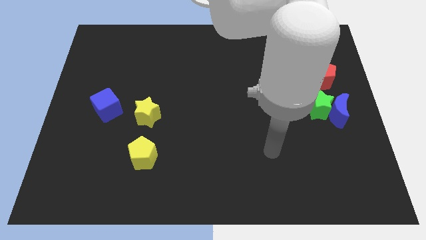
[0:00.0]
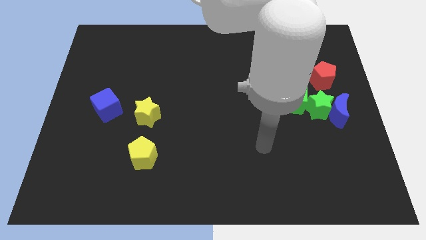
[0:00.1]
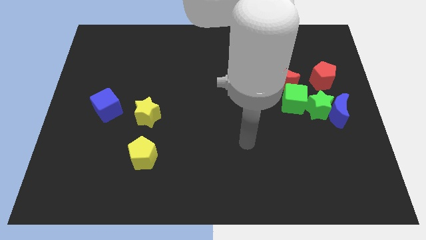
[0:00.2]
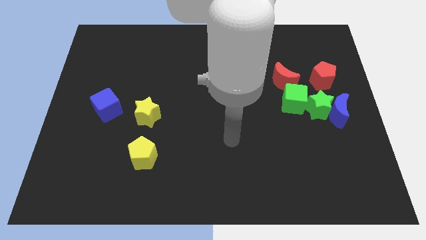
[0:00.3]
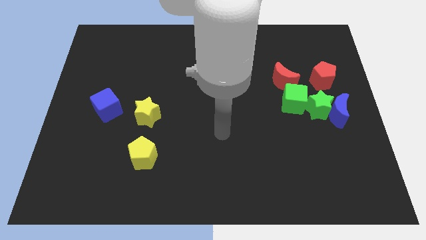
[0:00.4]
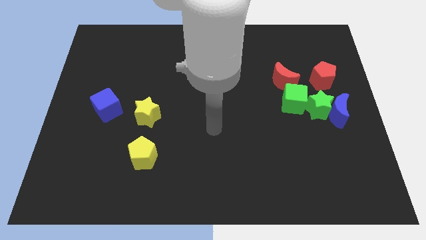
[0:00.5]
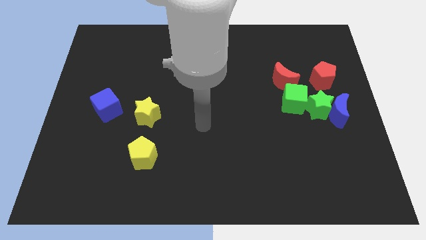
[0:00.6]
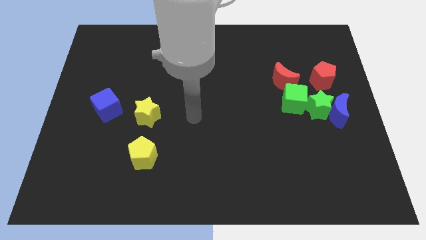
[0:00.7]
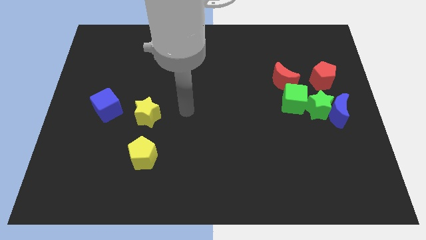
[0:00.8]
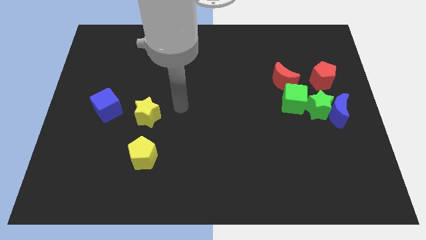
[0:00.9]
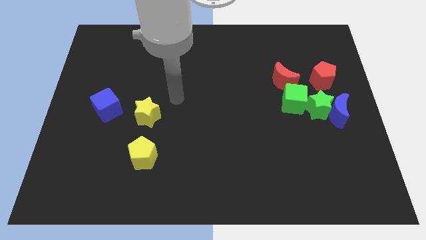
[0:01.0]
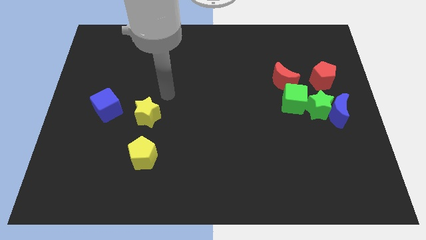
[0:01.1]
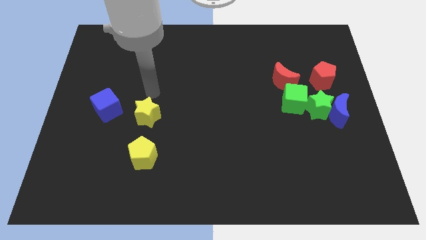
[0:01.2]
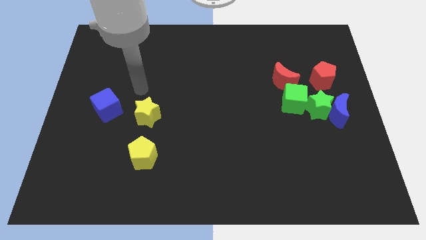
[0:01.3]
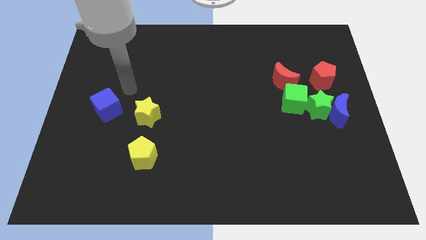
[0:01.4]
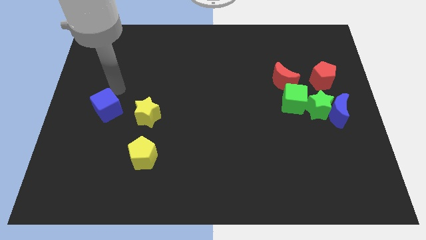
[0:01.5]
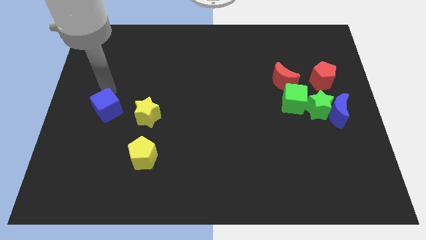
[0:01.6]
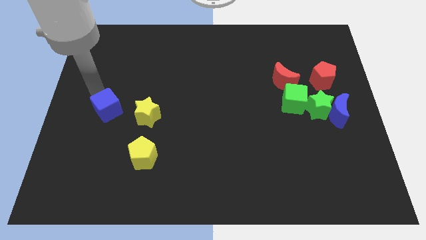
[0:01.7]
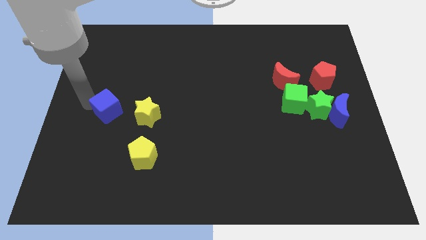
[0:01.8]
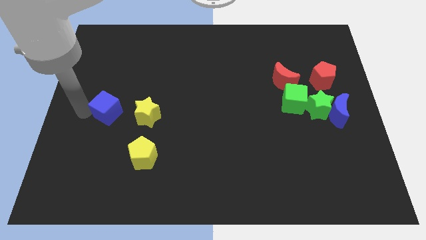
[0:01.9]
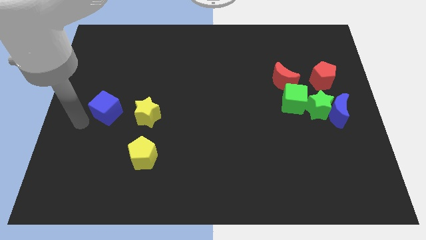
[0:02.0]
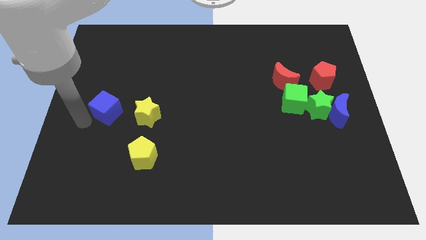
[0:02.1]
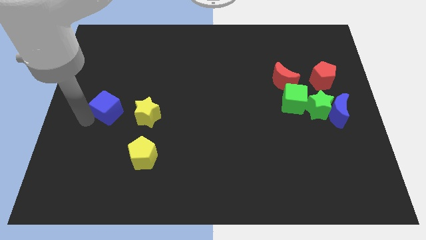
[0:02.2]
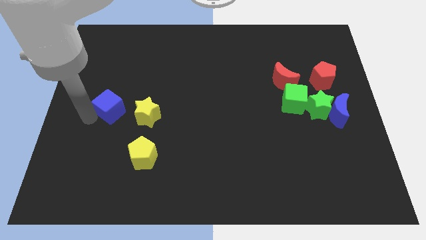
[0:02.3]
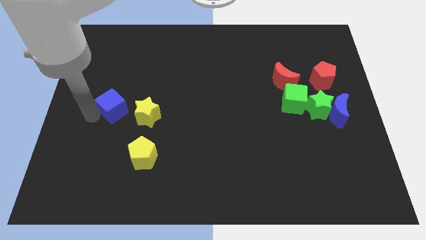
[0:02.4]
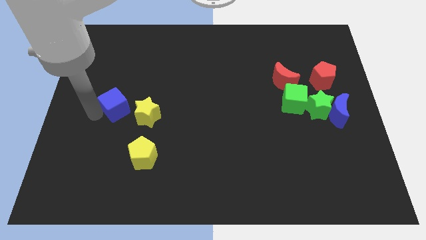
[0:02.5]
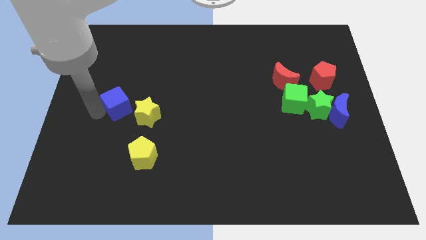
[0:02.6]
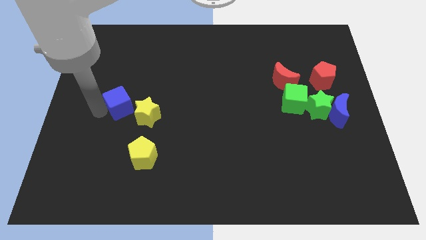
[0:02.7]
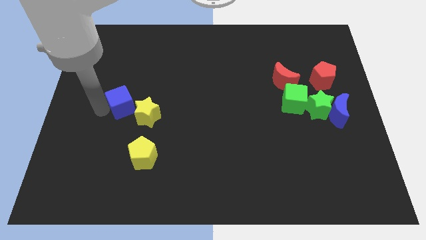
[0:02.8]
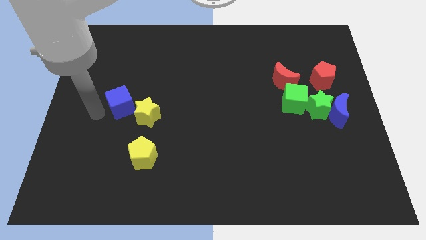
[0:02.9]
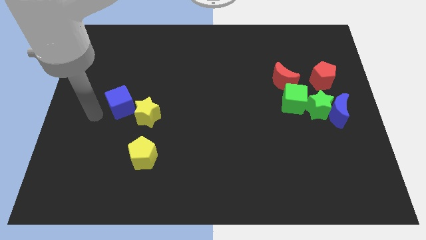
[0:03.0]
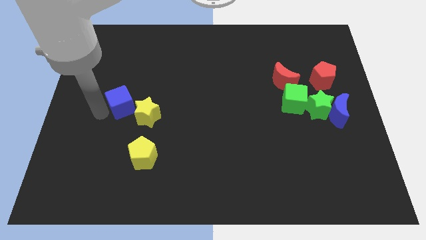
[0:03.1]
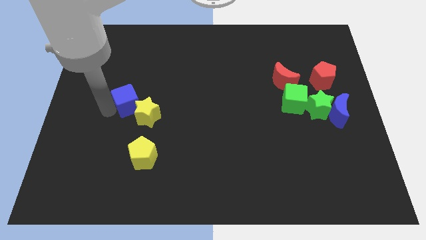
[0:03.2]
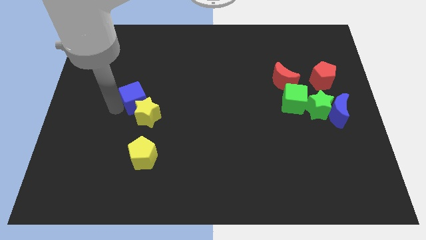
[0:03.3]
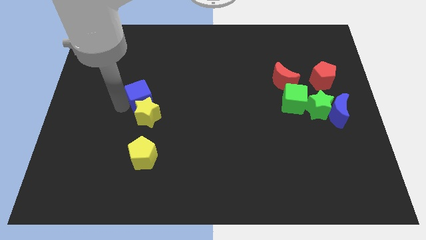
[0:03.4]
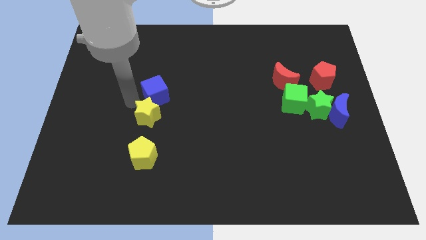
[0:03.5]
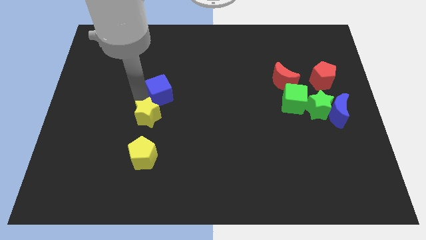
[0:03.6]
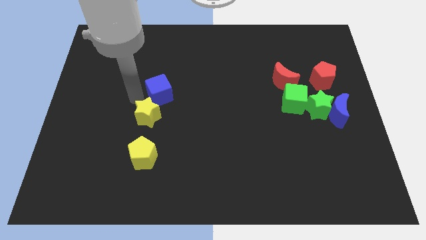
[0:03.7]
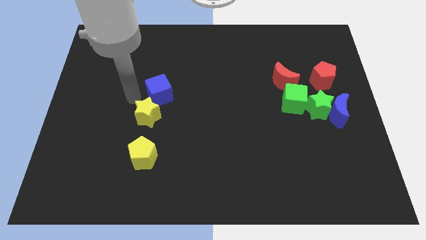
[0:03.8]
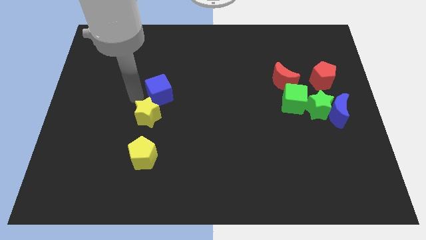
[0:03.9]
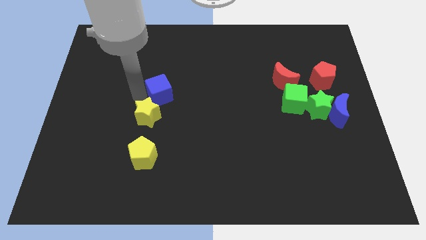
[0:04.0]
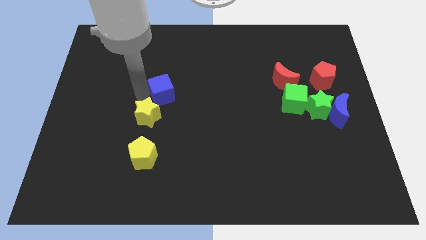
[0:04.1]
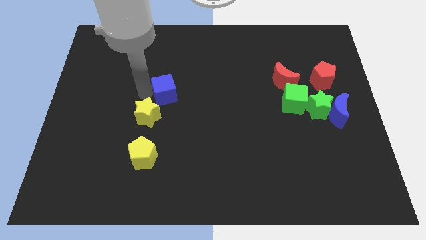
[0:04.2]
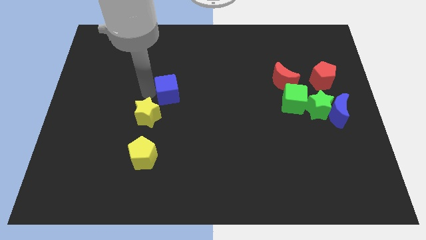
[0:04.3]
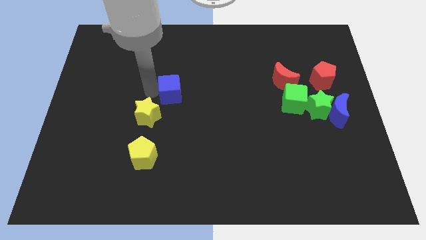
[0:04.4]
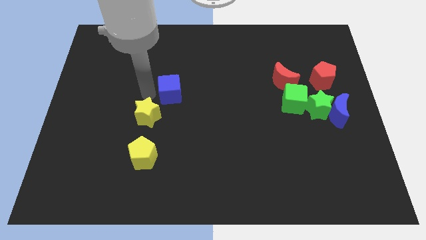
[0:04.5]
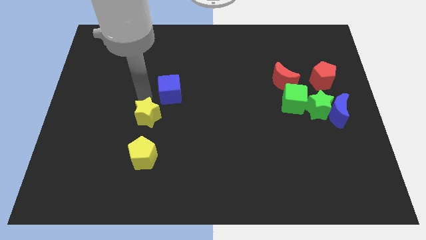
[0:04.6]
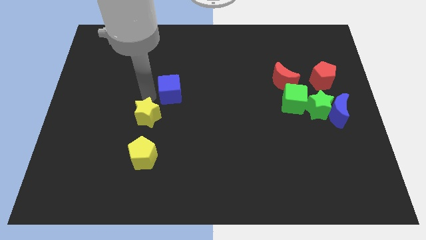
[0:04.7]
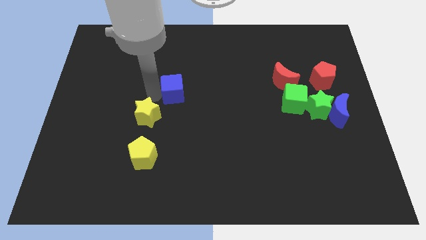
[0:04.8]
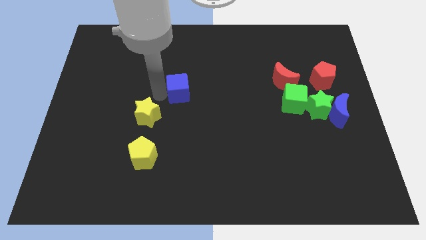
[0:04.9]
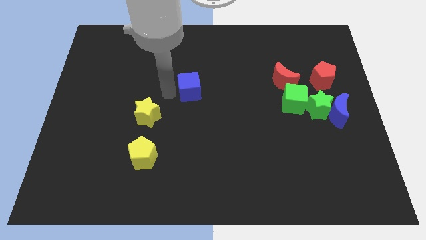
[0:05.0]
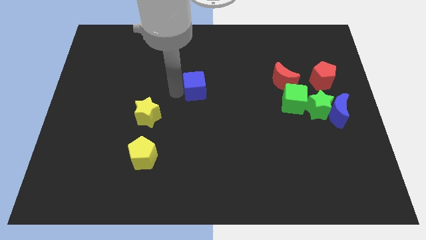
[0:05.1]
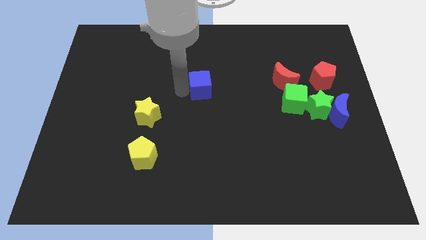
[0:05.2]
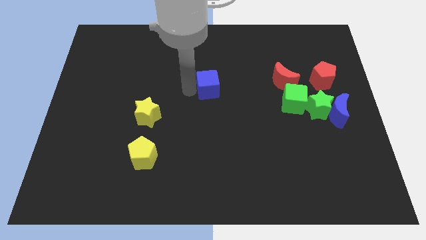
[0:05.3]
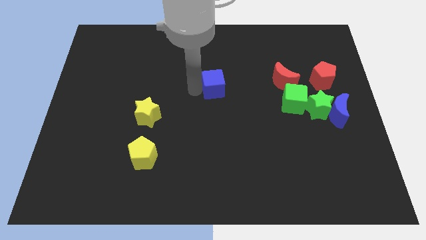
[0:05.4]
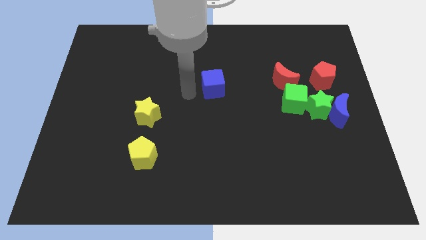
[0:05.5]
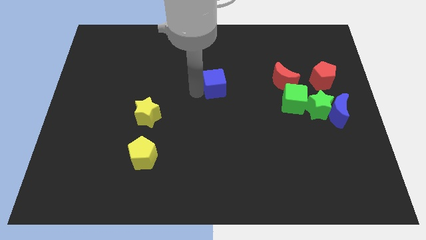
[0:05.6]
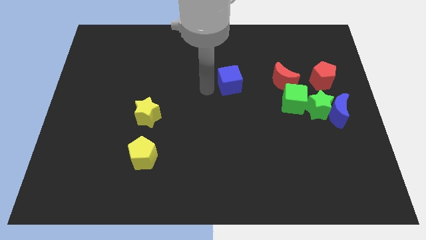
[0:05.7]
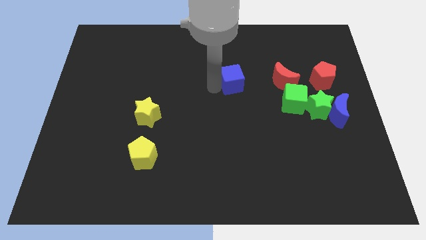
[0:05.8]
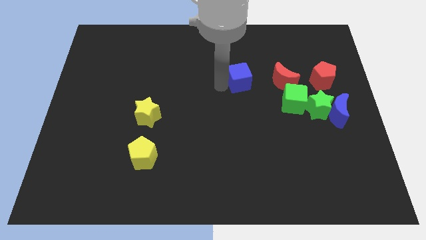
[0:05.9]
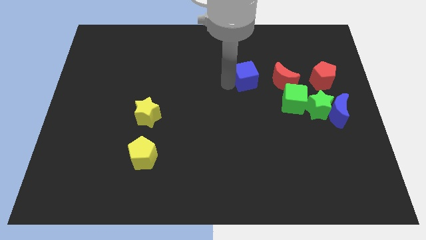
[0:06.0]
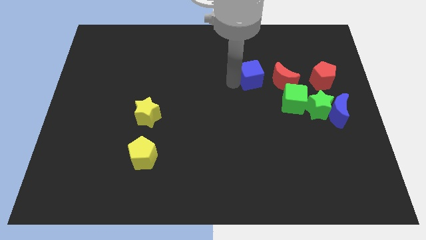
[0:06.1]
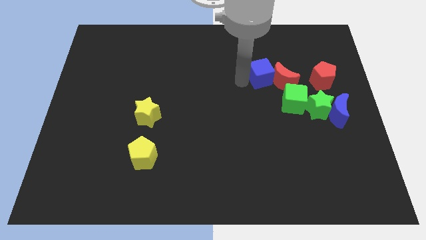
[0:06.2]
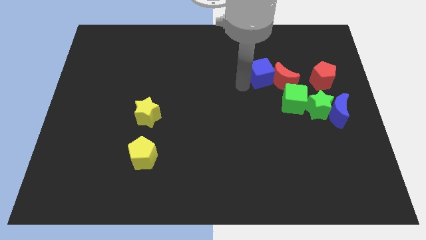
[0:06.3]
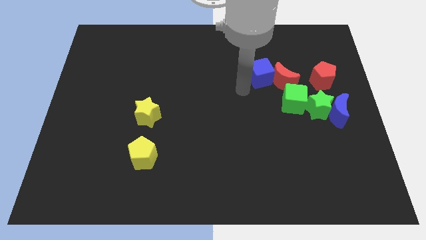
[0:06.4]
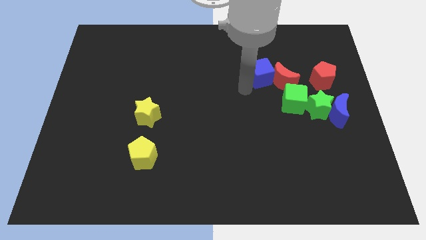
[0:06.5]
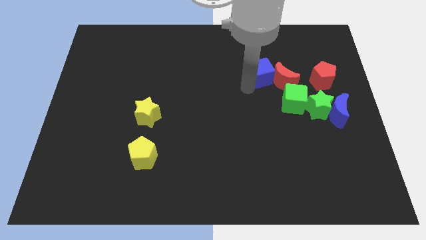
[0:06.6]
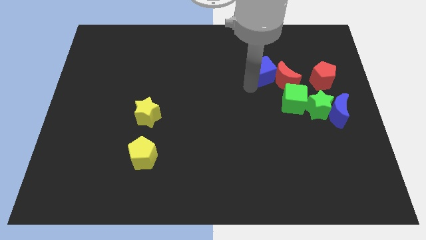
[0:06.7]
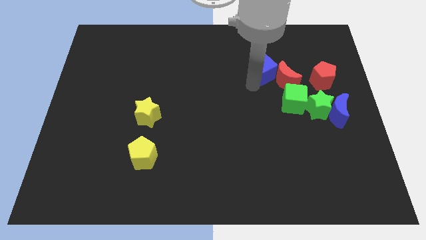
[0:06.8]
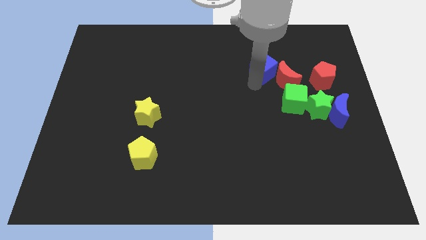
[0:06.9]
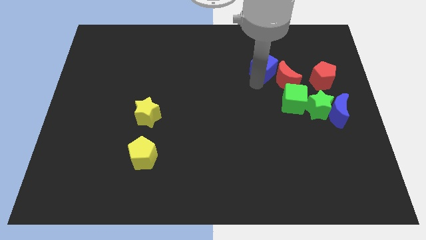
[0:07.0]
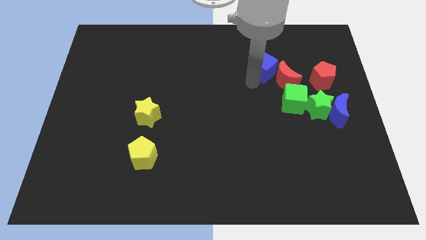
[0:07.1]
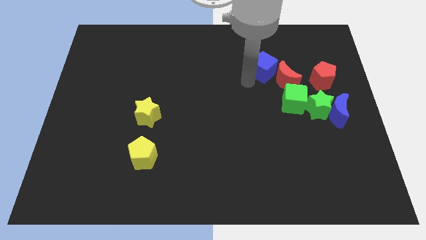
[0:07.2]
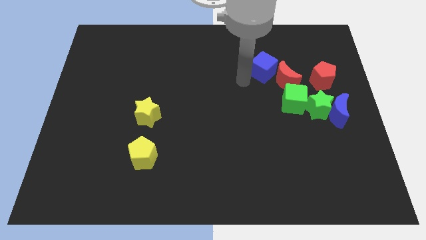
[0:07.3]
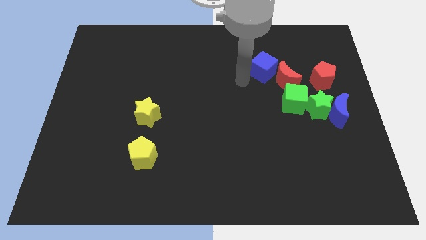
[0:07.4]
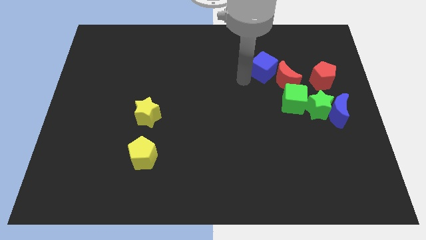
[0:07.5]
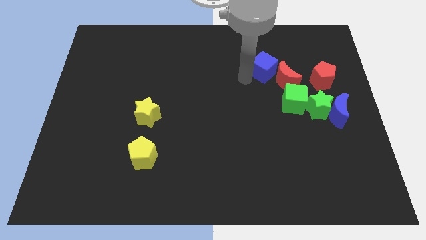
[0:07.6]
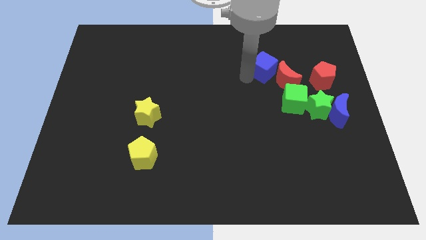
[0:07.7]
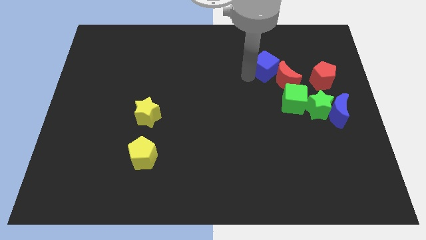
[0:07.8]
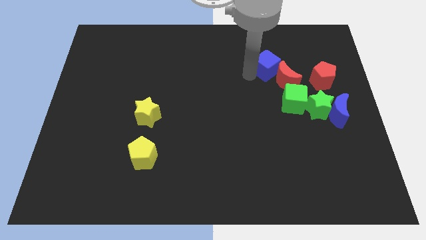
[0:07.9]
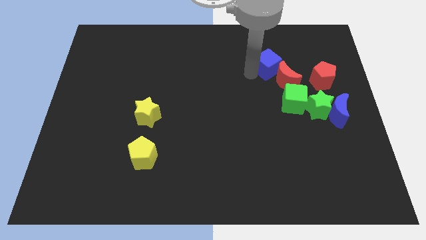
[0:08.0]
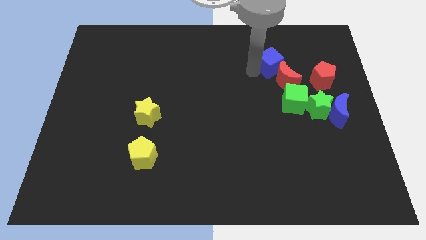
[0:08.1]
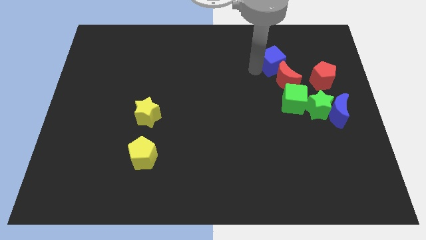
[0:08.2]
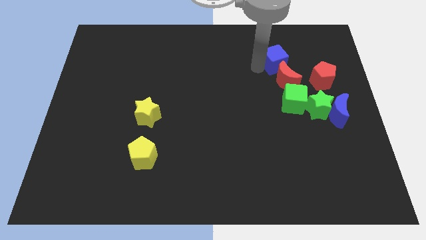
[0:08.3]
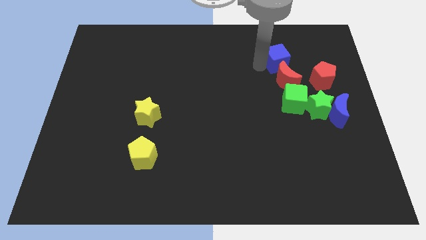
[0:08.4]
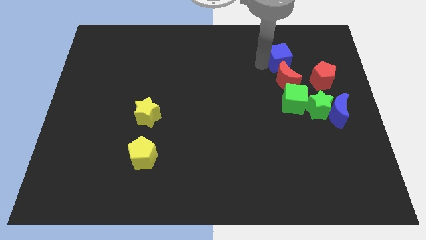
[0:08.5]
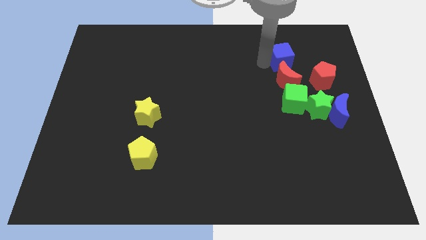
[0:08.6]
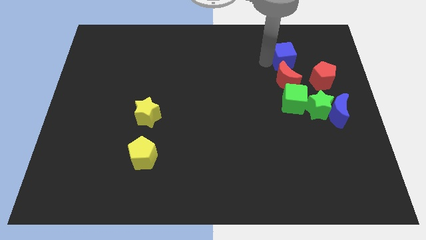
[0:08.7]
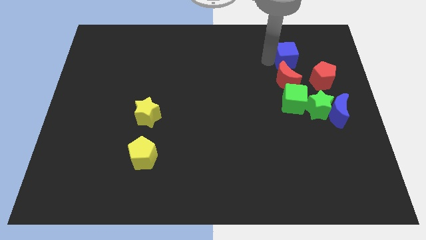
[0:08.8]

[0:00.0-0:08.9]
put the blue cube diagonally up and to the right of the red moon
